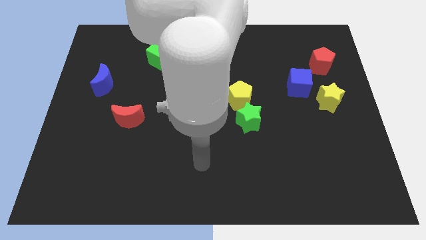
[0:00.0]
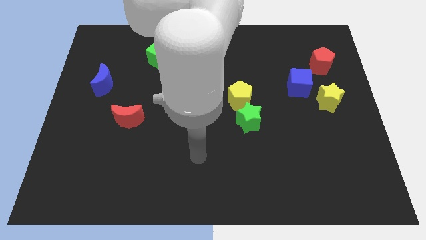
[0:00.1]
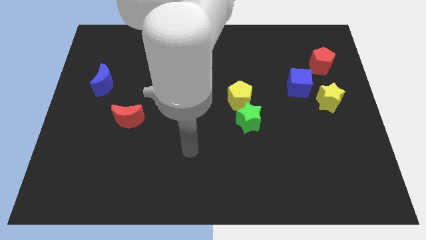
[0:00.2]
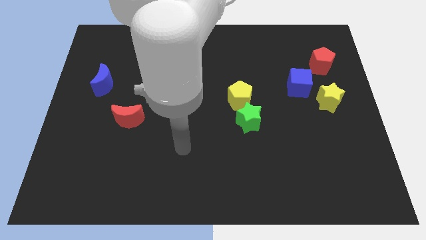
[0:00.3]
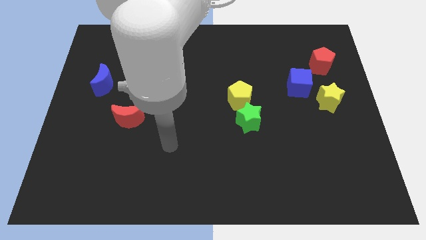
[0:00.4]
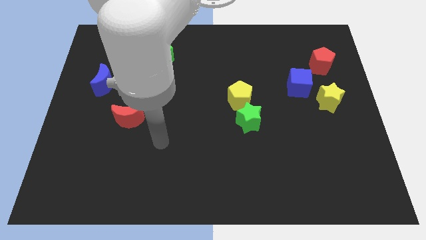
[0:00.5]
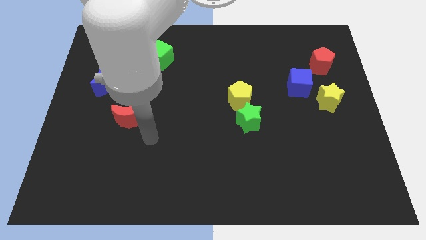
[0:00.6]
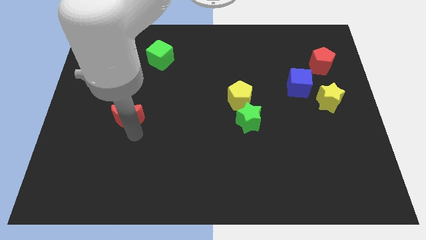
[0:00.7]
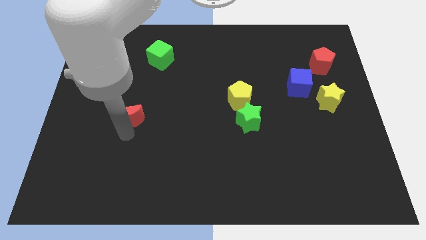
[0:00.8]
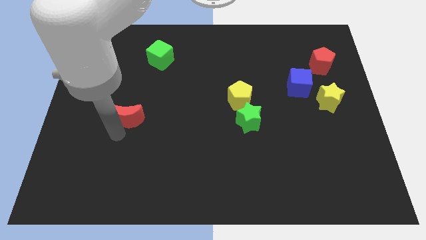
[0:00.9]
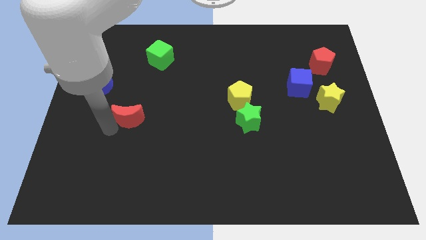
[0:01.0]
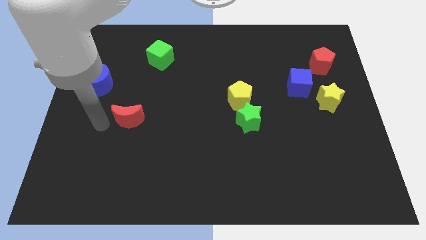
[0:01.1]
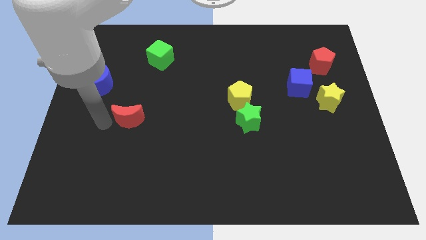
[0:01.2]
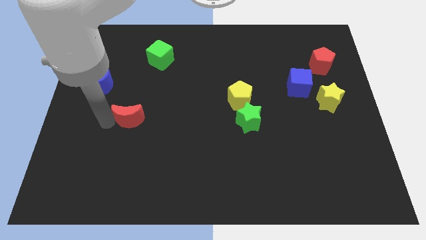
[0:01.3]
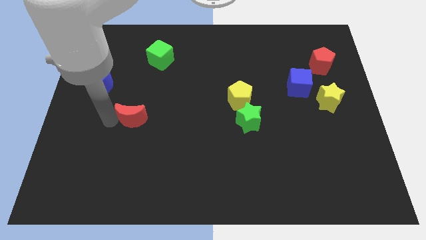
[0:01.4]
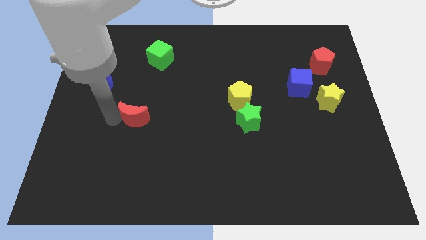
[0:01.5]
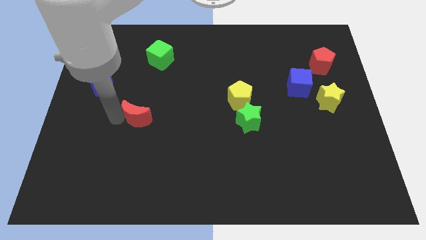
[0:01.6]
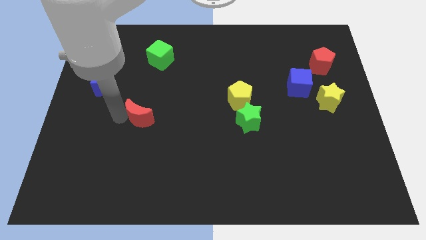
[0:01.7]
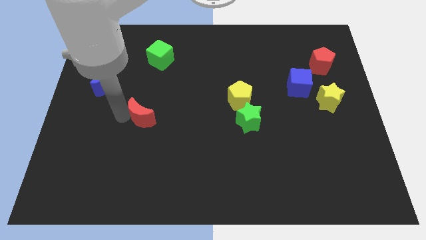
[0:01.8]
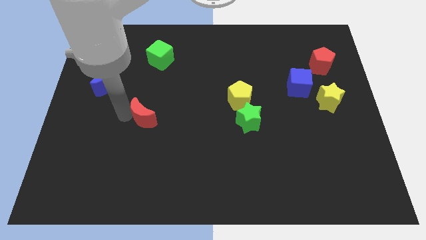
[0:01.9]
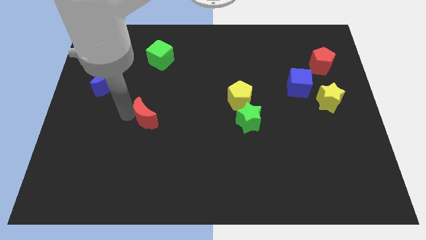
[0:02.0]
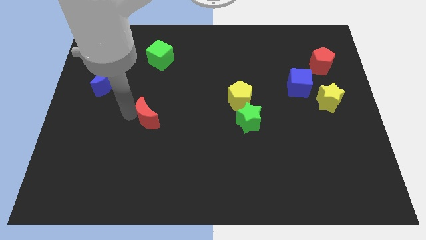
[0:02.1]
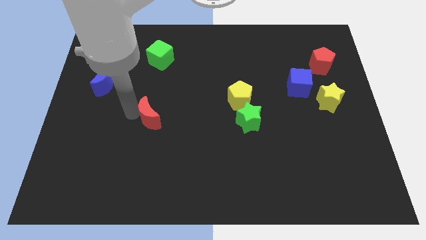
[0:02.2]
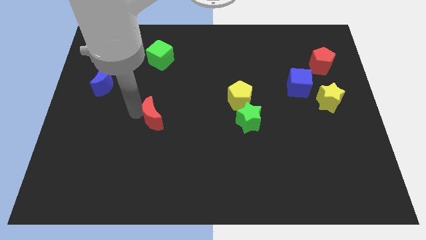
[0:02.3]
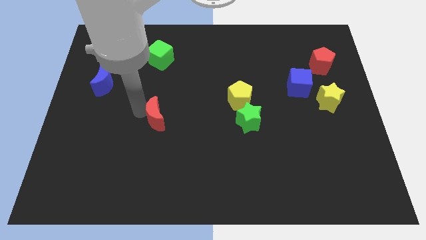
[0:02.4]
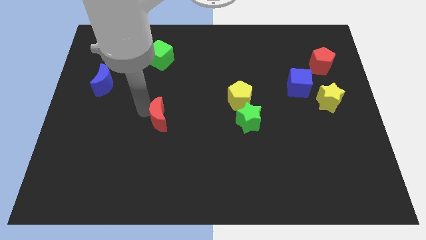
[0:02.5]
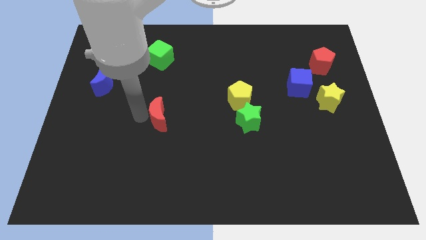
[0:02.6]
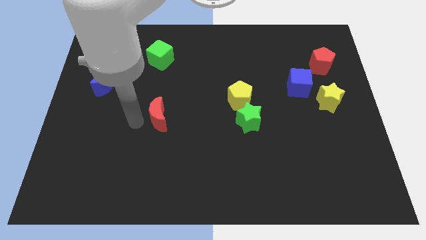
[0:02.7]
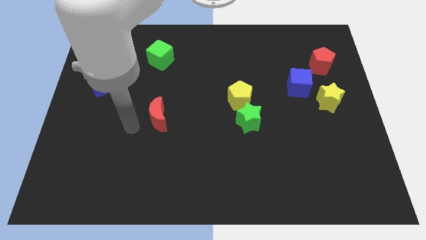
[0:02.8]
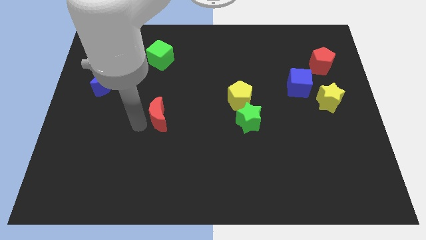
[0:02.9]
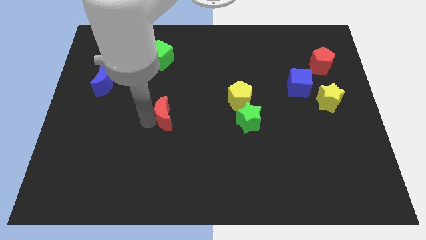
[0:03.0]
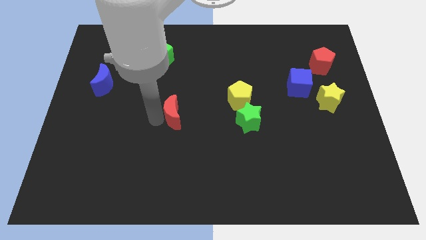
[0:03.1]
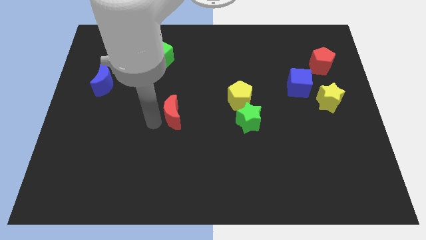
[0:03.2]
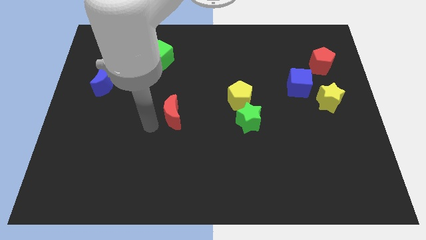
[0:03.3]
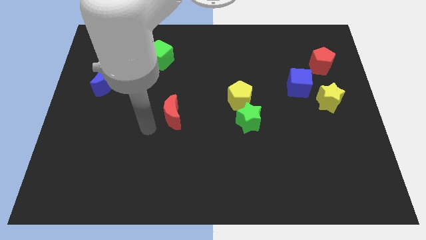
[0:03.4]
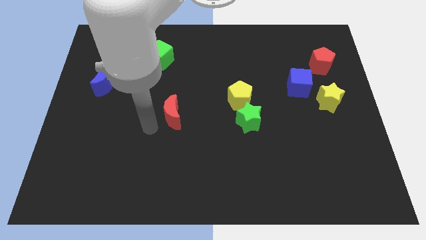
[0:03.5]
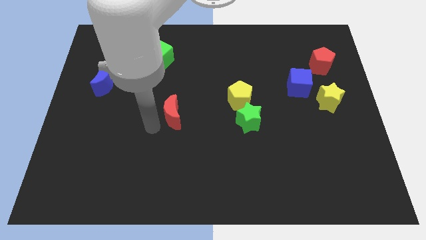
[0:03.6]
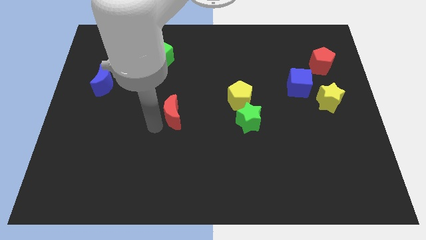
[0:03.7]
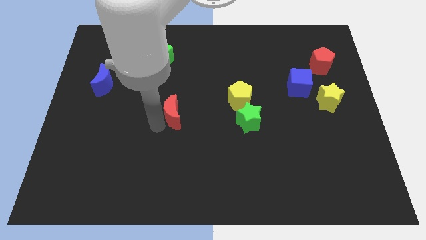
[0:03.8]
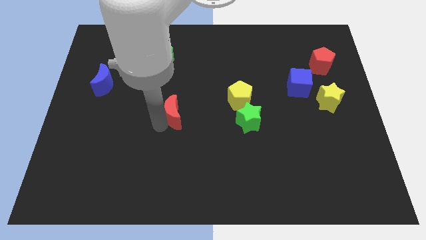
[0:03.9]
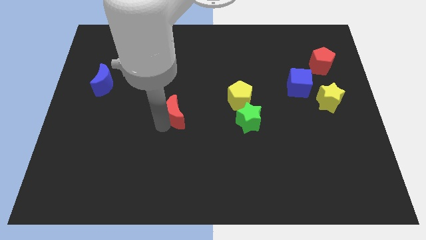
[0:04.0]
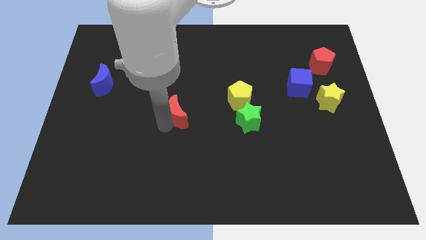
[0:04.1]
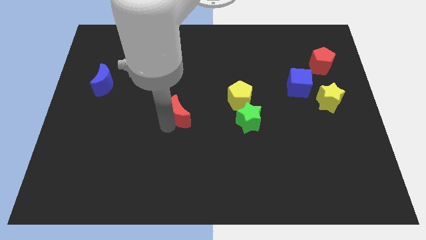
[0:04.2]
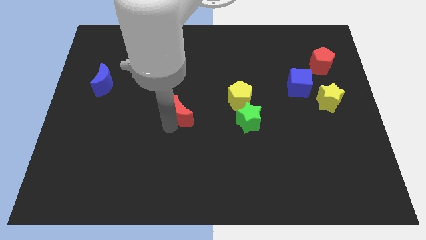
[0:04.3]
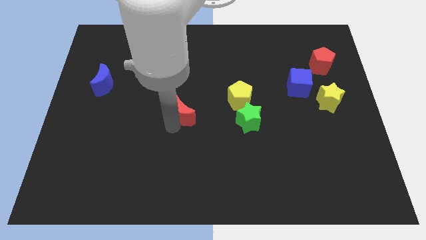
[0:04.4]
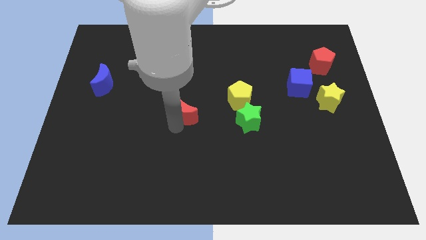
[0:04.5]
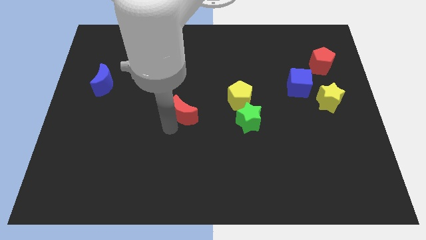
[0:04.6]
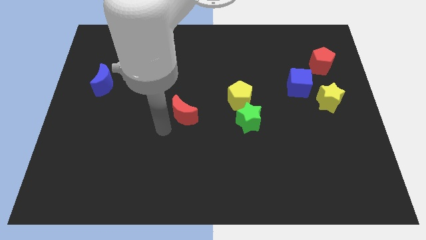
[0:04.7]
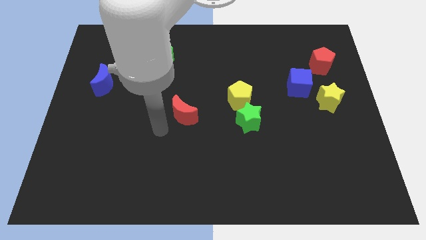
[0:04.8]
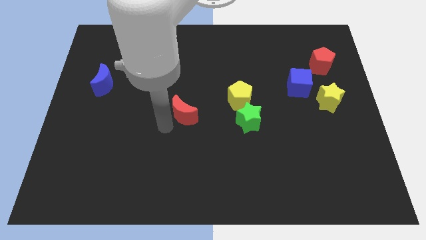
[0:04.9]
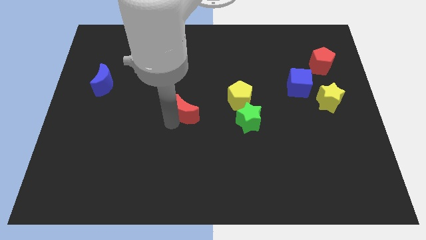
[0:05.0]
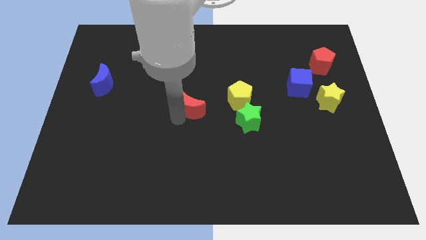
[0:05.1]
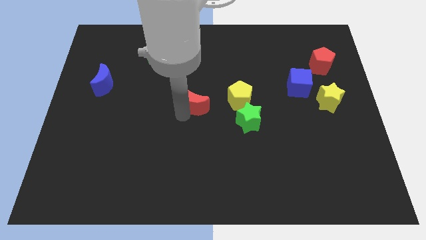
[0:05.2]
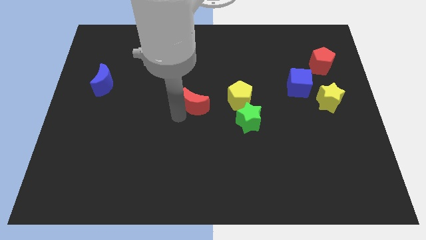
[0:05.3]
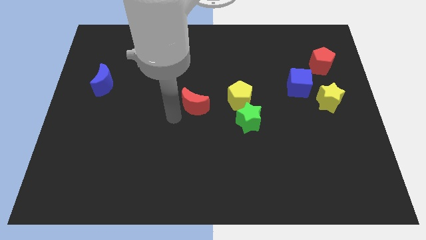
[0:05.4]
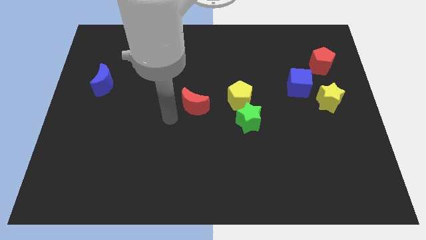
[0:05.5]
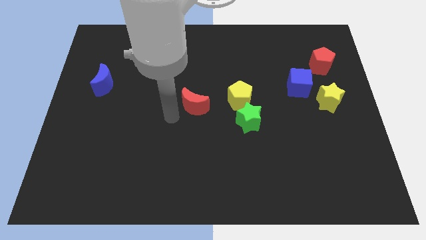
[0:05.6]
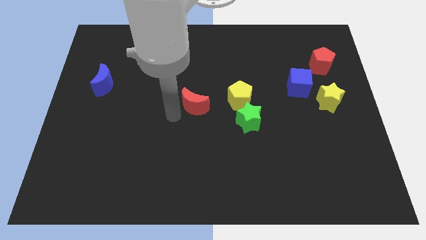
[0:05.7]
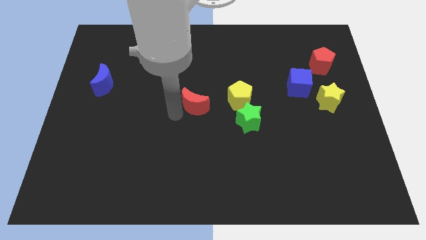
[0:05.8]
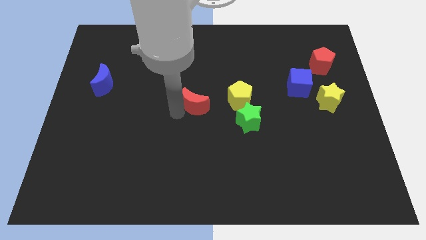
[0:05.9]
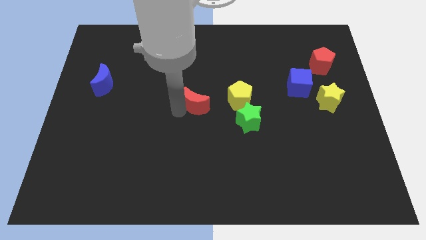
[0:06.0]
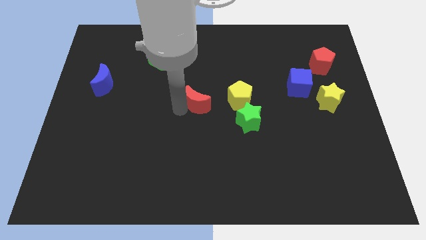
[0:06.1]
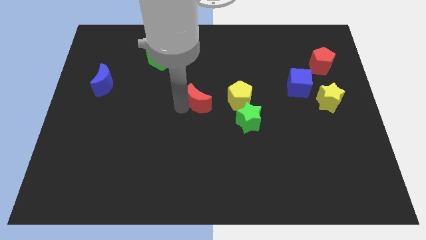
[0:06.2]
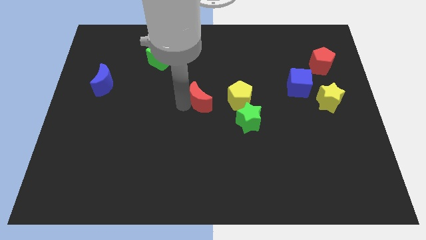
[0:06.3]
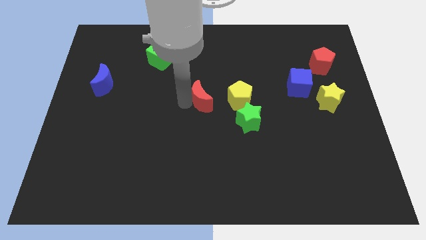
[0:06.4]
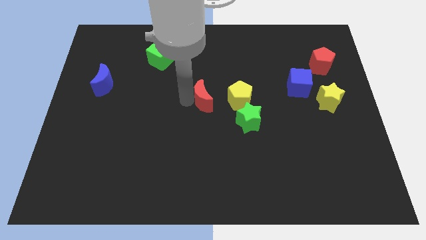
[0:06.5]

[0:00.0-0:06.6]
put the red moon to the top left side of the green star

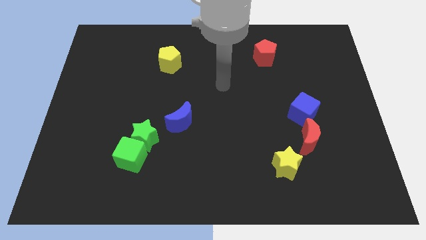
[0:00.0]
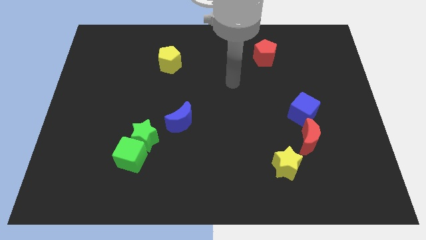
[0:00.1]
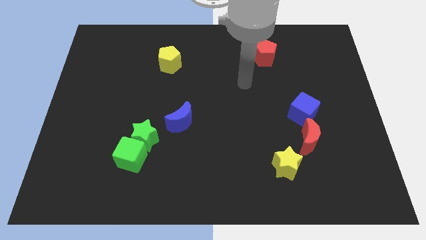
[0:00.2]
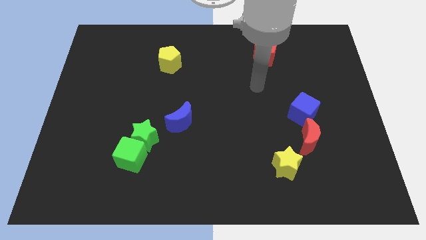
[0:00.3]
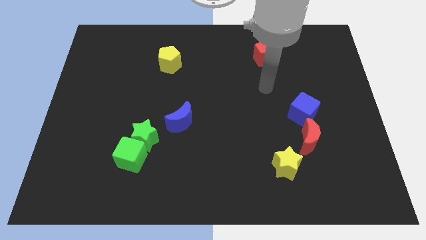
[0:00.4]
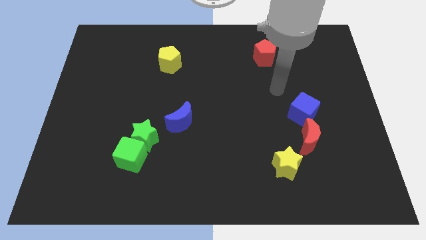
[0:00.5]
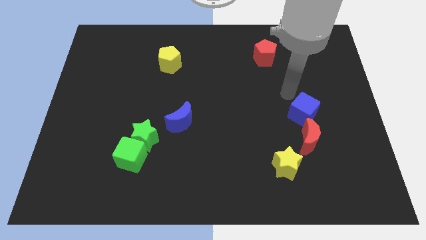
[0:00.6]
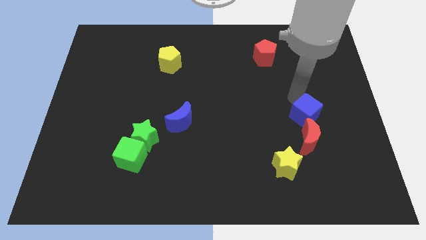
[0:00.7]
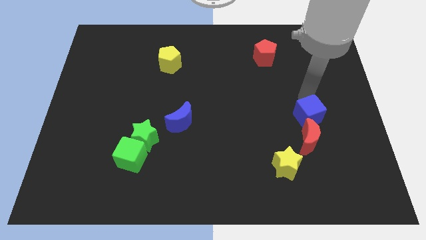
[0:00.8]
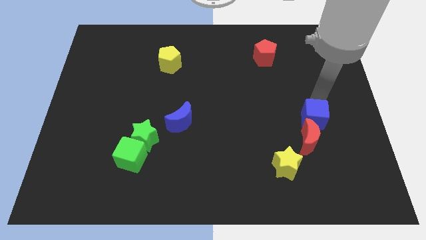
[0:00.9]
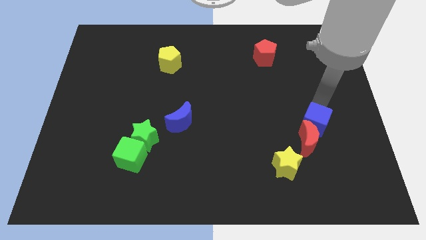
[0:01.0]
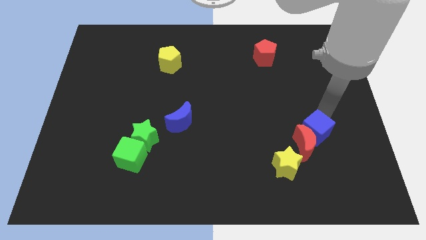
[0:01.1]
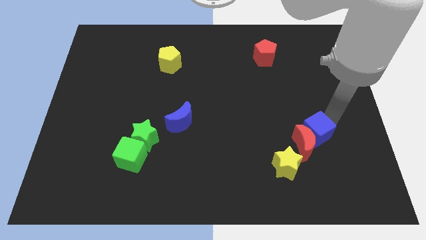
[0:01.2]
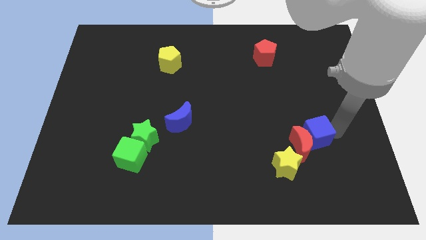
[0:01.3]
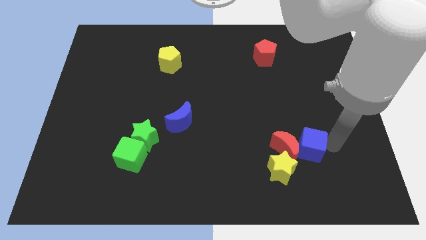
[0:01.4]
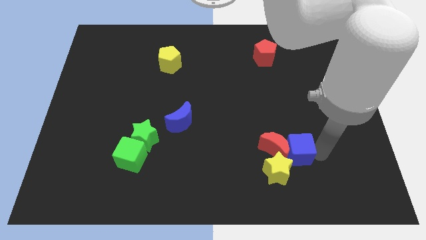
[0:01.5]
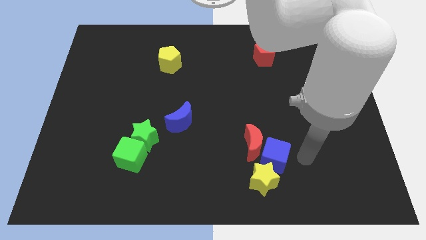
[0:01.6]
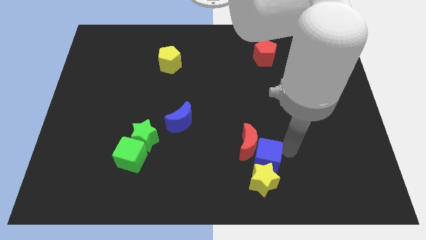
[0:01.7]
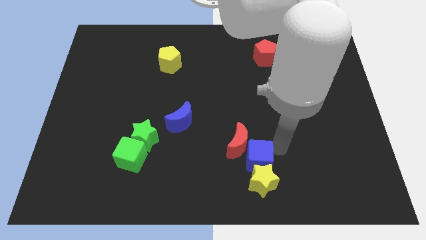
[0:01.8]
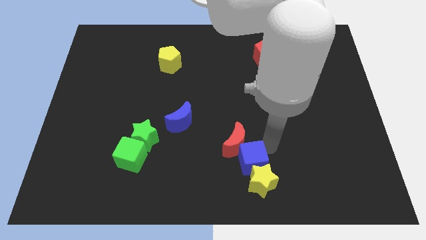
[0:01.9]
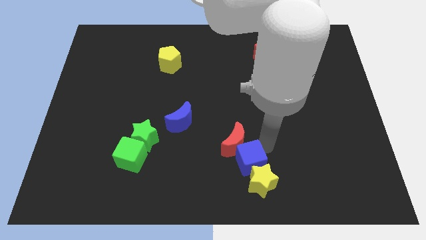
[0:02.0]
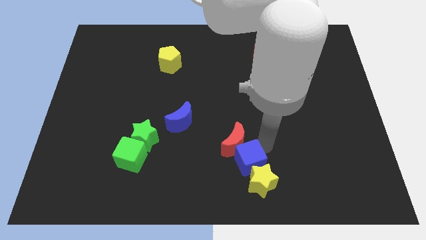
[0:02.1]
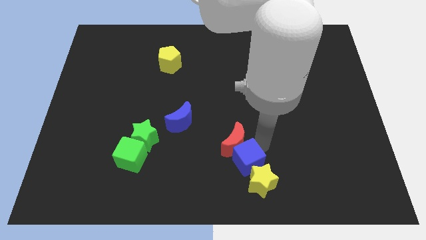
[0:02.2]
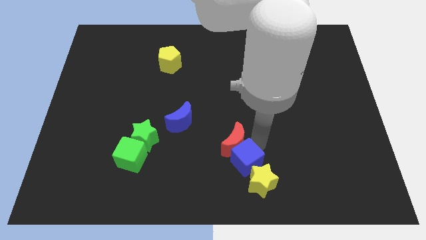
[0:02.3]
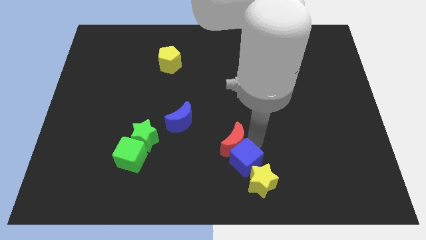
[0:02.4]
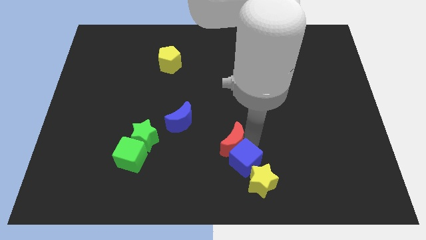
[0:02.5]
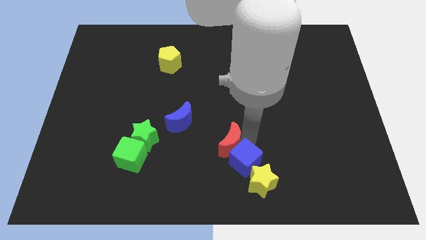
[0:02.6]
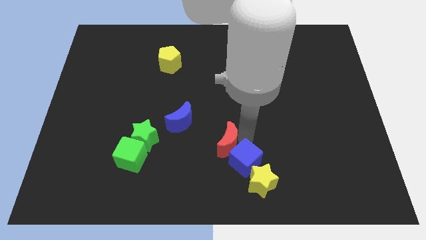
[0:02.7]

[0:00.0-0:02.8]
put the red moon to the bottom right side of the blue moon
